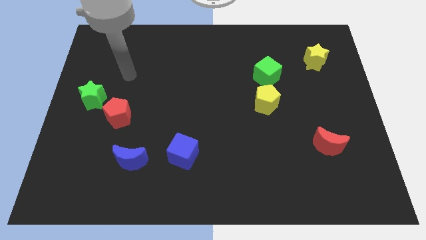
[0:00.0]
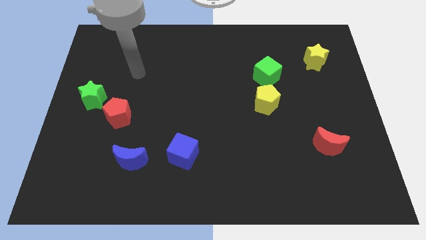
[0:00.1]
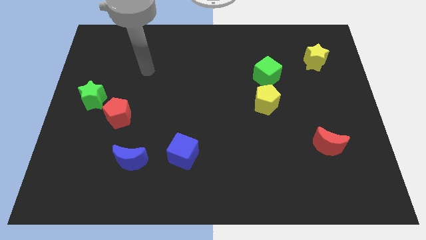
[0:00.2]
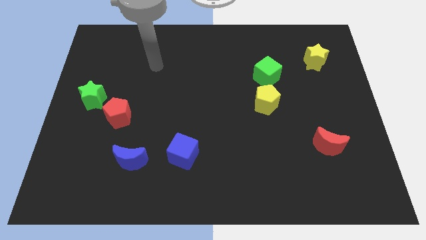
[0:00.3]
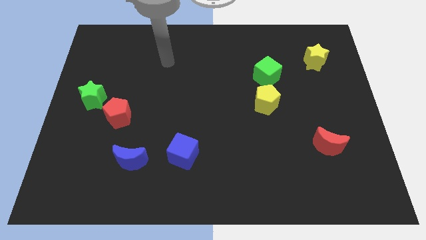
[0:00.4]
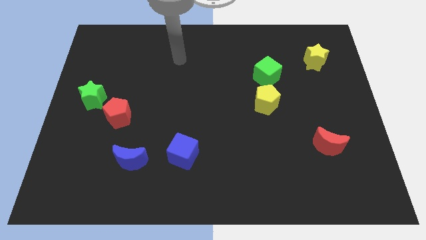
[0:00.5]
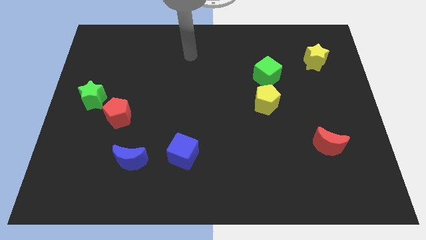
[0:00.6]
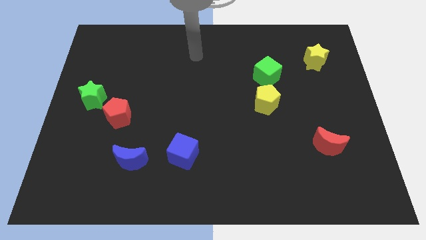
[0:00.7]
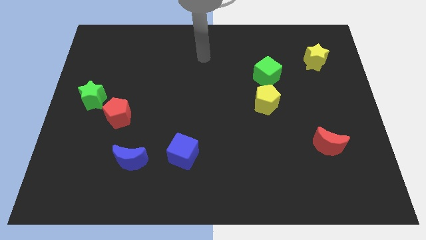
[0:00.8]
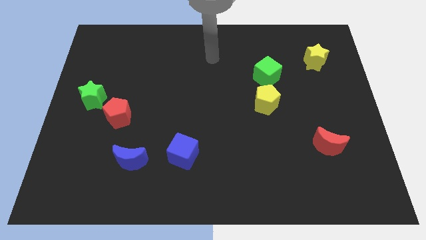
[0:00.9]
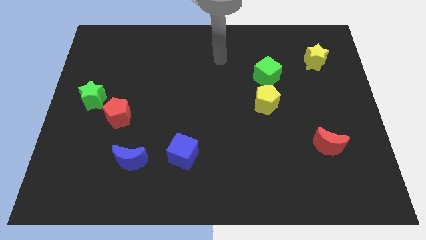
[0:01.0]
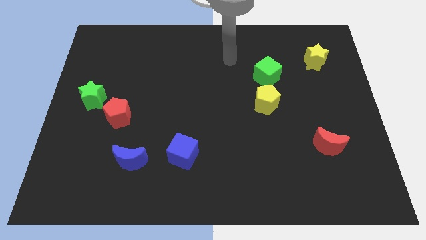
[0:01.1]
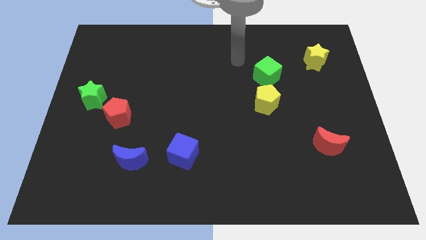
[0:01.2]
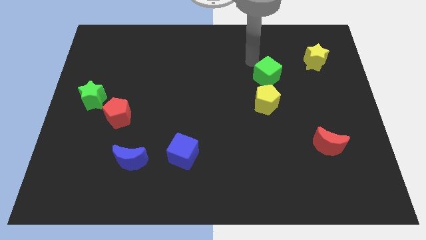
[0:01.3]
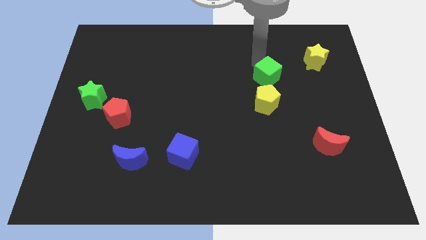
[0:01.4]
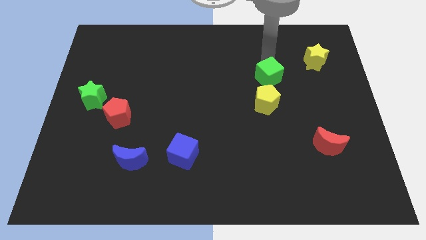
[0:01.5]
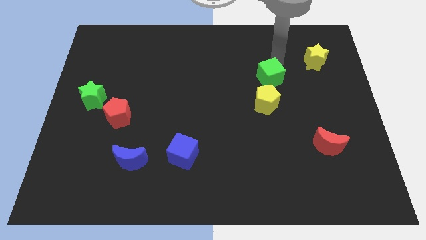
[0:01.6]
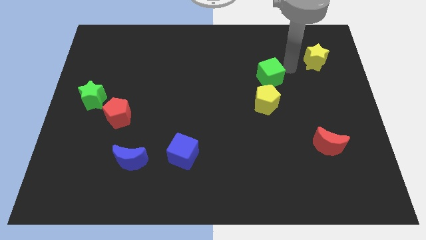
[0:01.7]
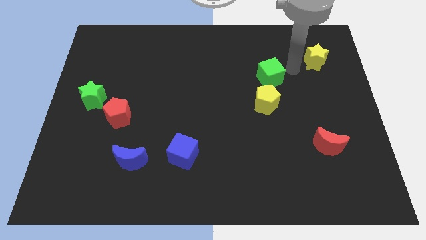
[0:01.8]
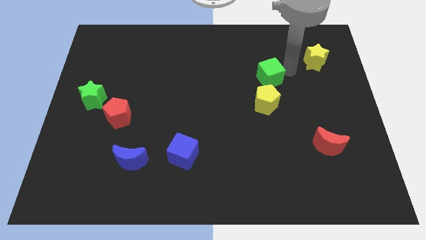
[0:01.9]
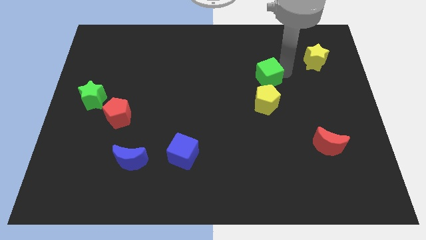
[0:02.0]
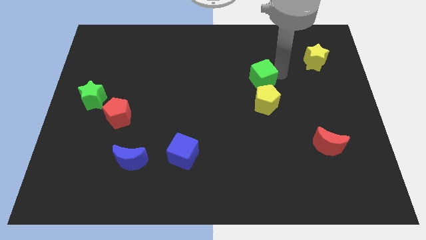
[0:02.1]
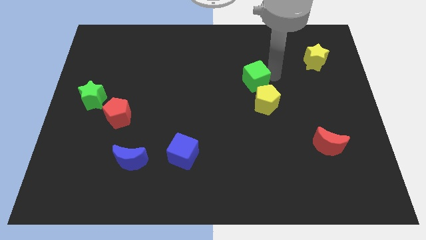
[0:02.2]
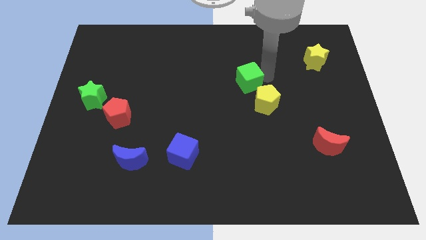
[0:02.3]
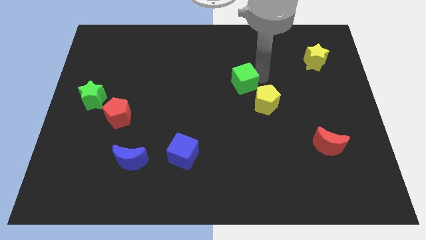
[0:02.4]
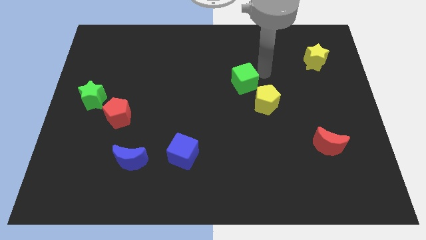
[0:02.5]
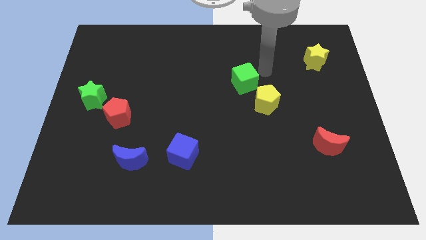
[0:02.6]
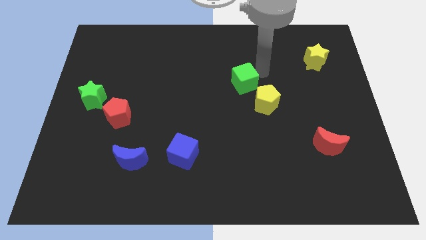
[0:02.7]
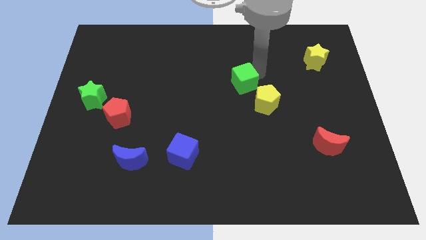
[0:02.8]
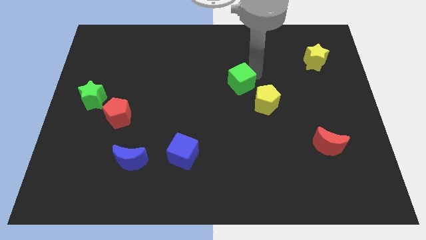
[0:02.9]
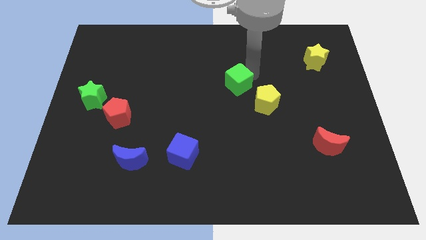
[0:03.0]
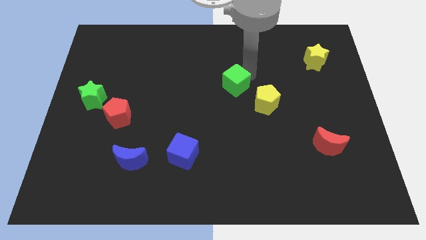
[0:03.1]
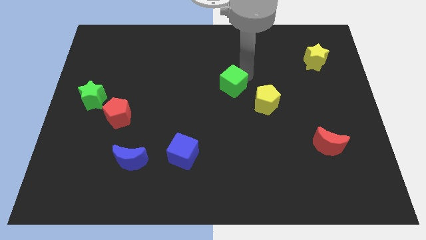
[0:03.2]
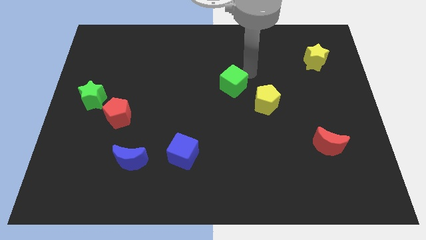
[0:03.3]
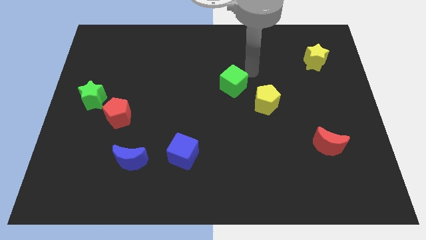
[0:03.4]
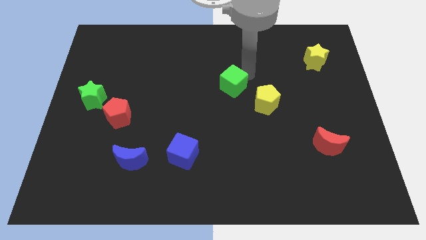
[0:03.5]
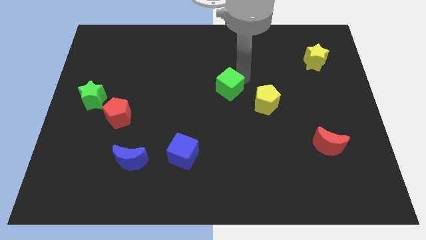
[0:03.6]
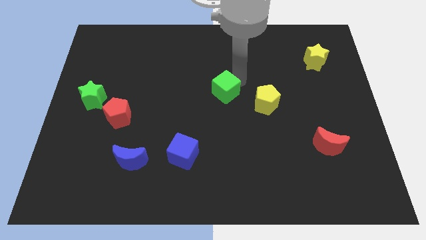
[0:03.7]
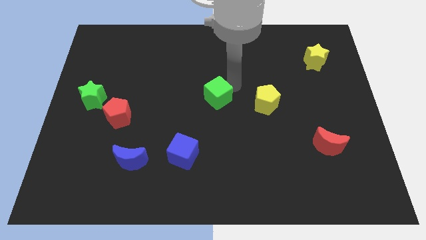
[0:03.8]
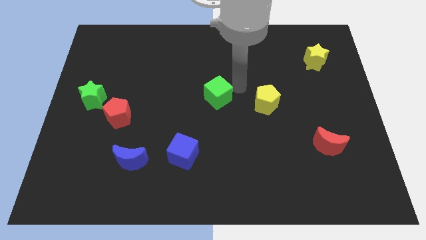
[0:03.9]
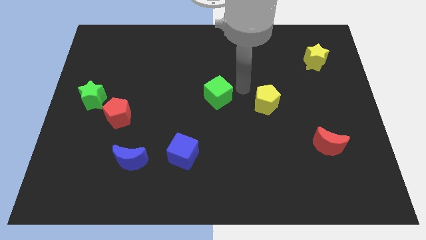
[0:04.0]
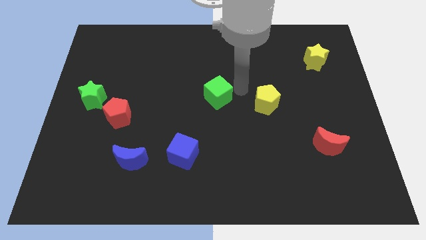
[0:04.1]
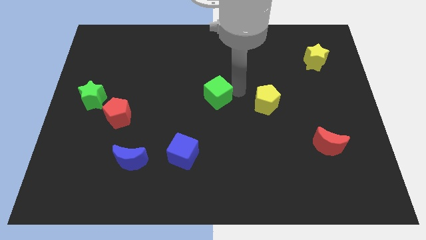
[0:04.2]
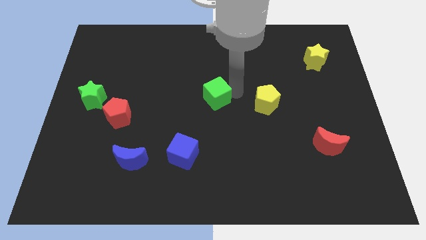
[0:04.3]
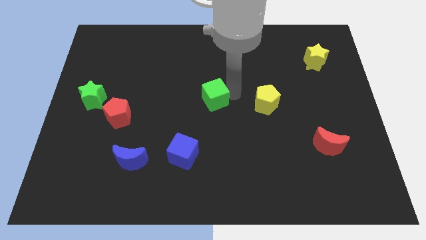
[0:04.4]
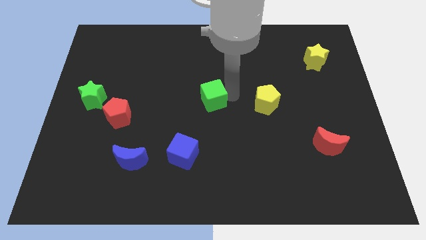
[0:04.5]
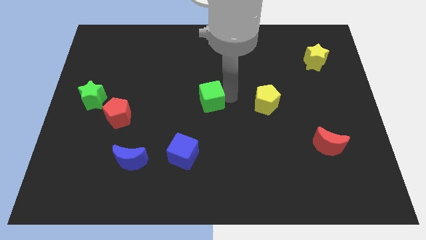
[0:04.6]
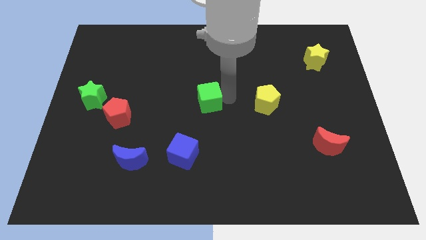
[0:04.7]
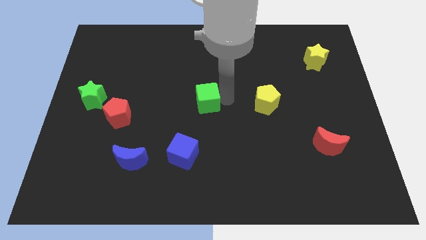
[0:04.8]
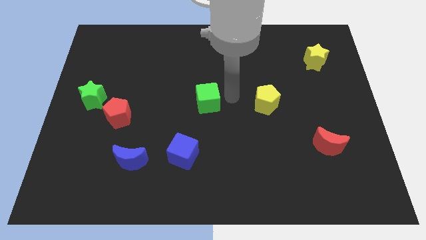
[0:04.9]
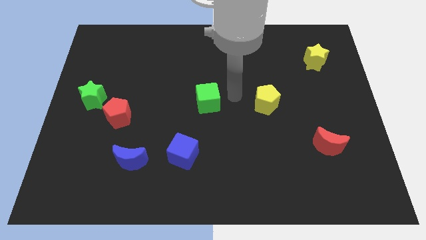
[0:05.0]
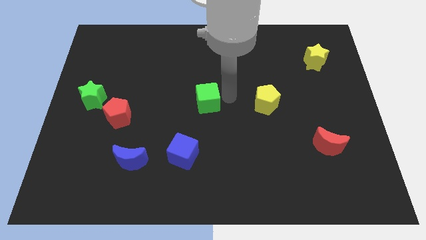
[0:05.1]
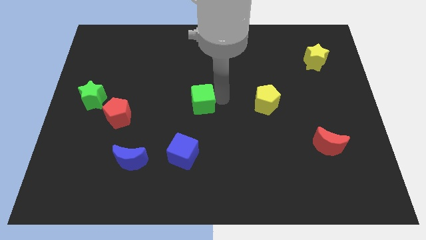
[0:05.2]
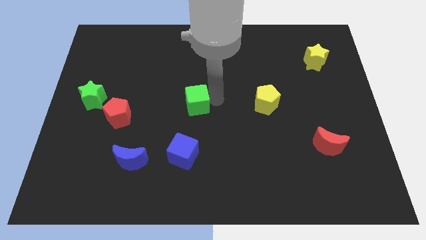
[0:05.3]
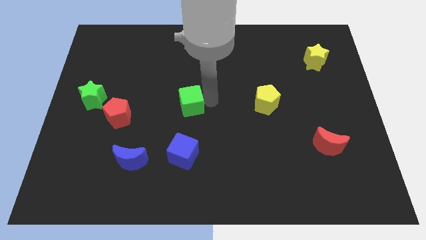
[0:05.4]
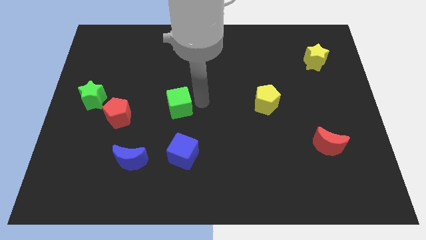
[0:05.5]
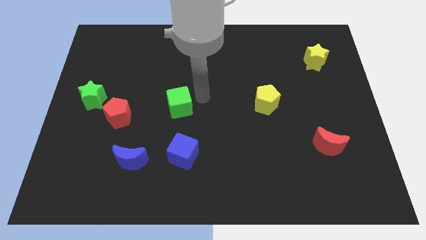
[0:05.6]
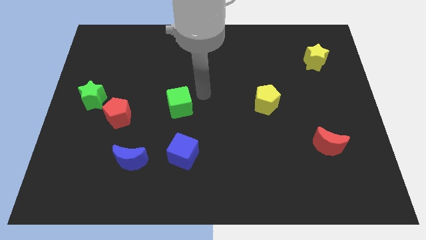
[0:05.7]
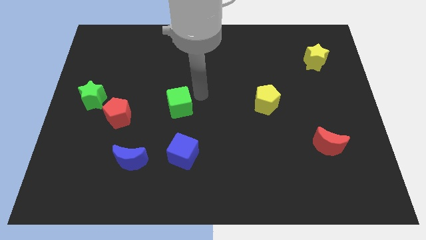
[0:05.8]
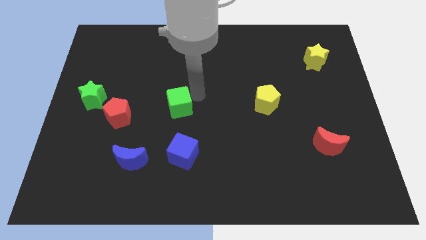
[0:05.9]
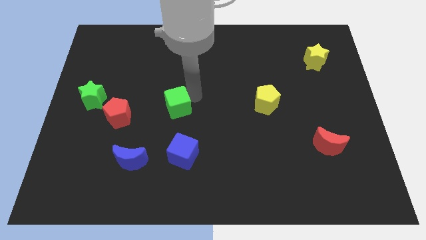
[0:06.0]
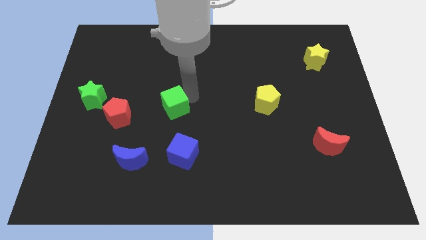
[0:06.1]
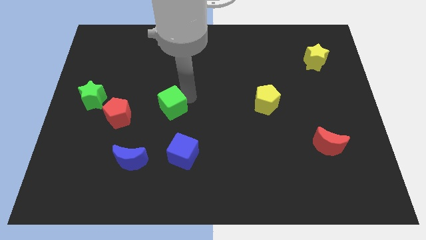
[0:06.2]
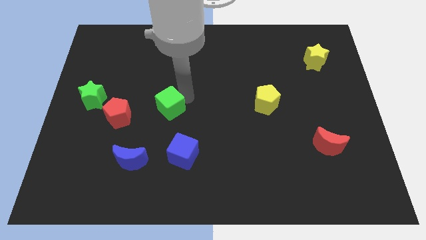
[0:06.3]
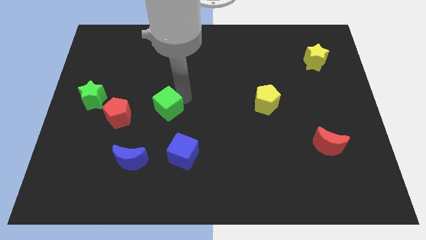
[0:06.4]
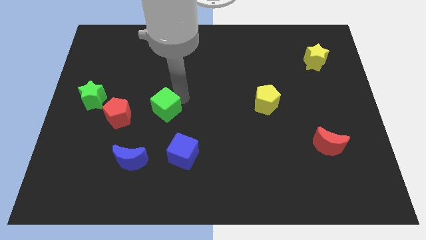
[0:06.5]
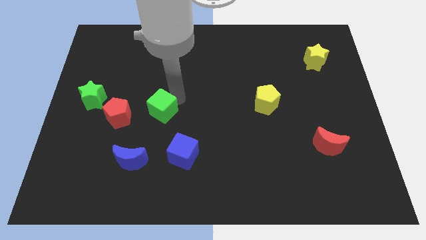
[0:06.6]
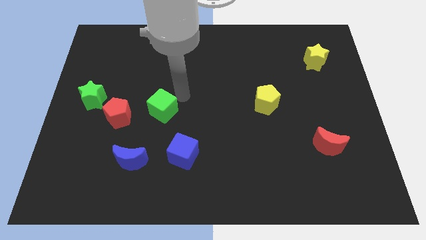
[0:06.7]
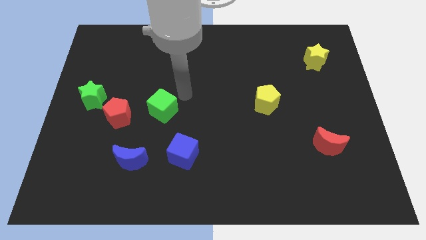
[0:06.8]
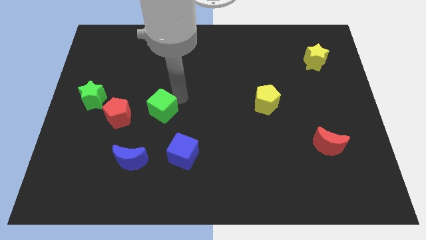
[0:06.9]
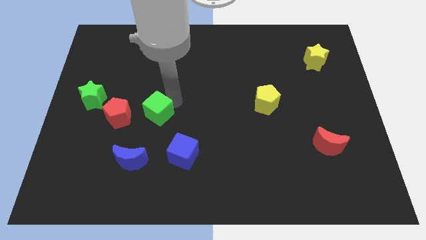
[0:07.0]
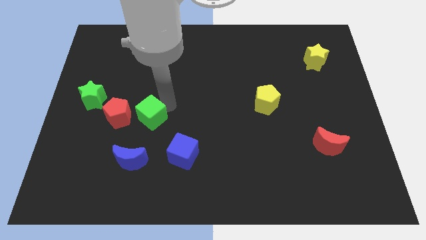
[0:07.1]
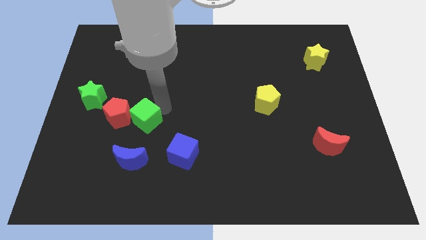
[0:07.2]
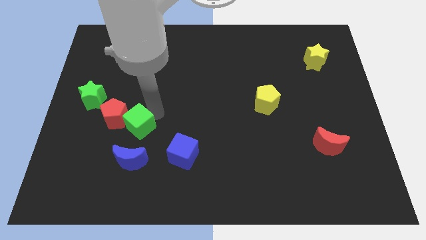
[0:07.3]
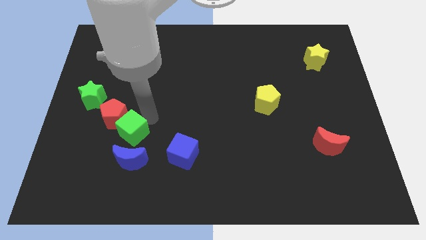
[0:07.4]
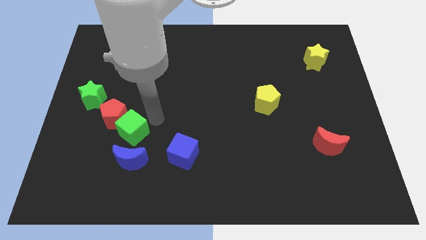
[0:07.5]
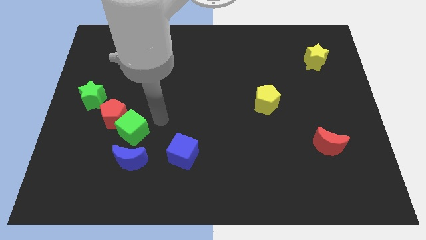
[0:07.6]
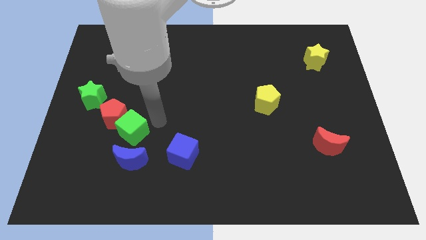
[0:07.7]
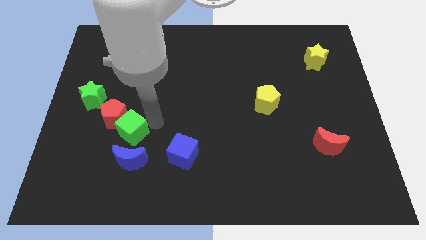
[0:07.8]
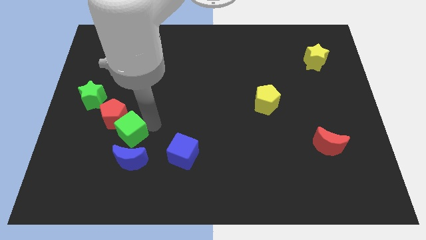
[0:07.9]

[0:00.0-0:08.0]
move the green cube to the top left side of the blue moon
